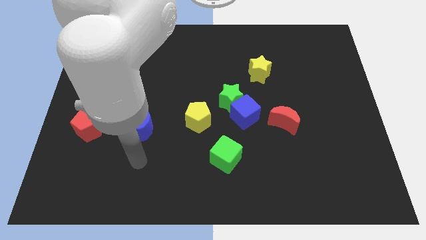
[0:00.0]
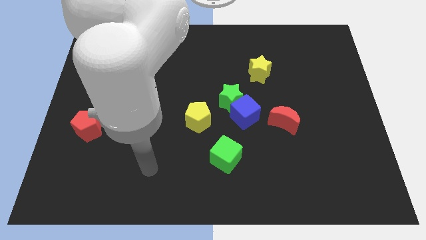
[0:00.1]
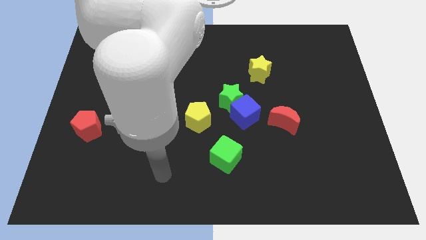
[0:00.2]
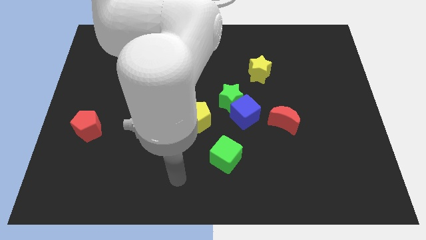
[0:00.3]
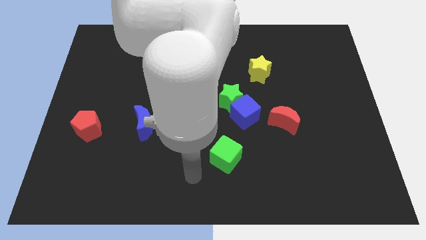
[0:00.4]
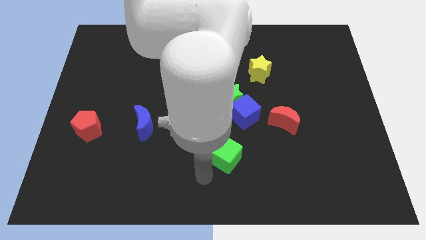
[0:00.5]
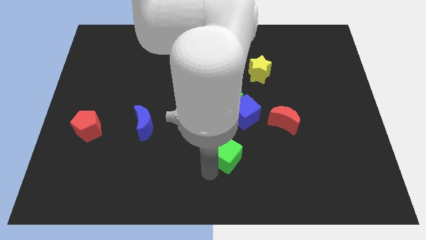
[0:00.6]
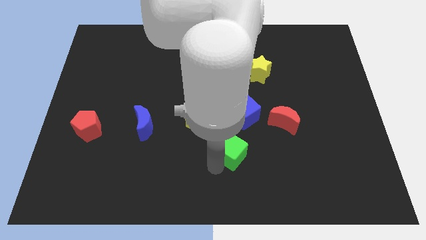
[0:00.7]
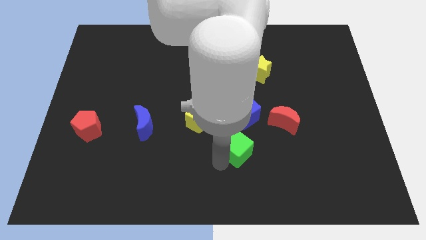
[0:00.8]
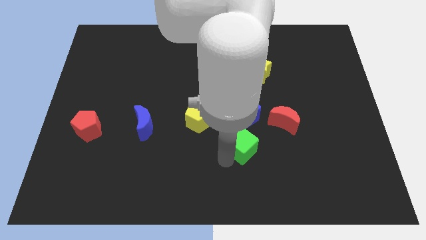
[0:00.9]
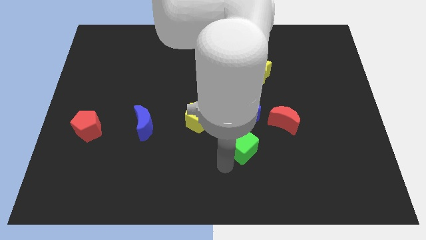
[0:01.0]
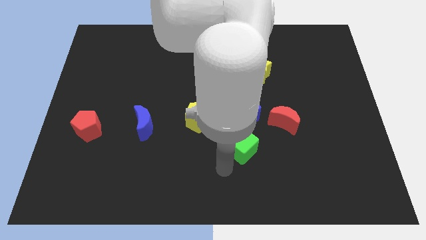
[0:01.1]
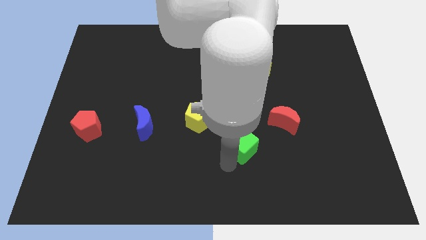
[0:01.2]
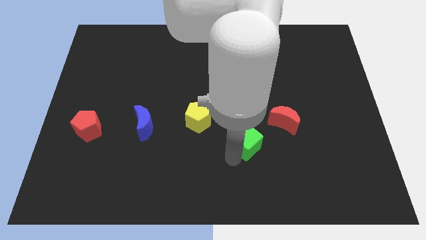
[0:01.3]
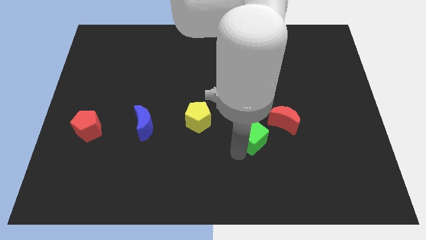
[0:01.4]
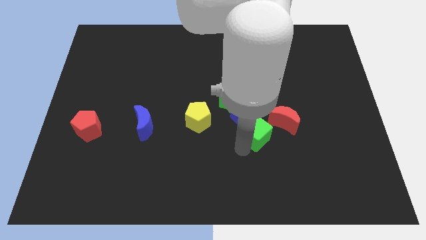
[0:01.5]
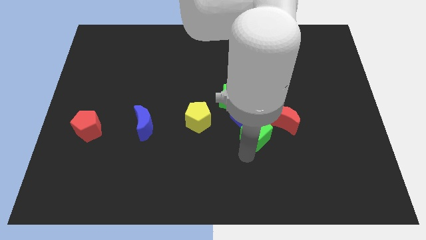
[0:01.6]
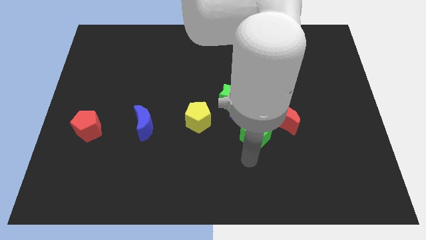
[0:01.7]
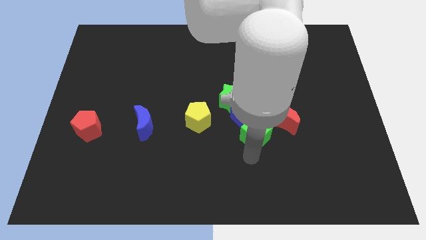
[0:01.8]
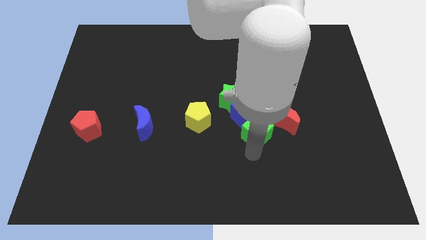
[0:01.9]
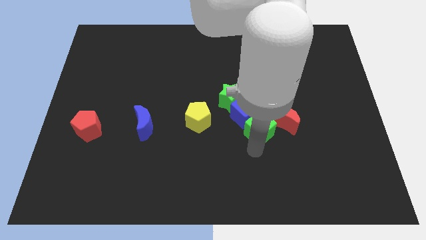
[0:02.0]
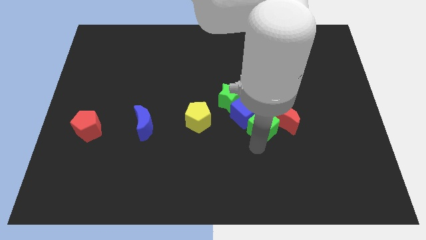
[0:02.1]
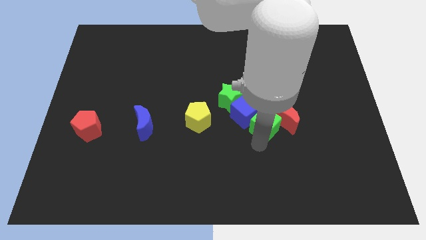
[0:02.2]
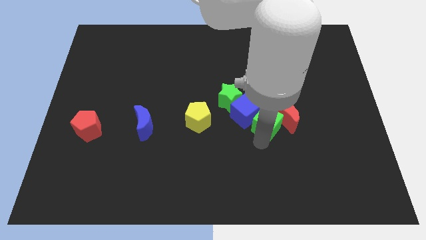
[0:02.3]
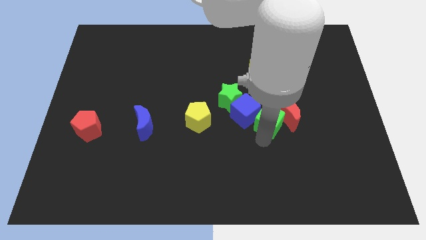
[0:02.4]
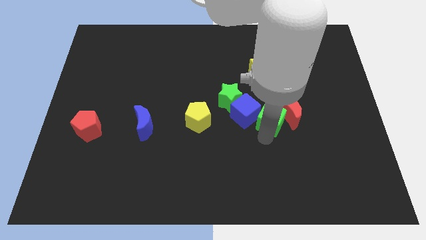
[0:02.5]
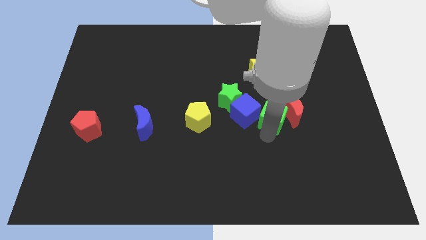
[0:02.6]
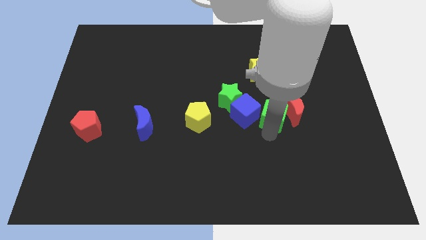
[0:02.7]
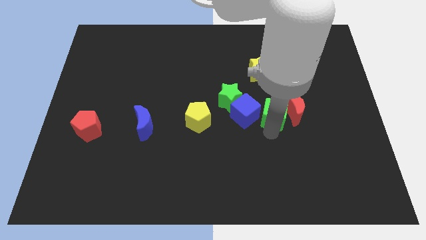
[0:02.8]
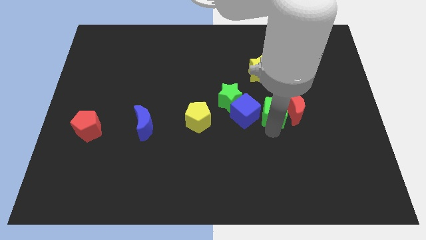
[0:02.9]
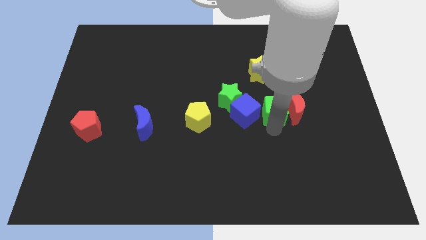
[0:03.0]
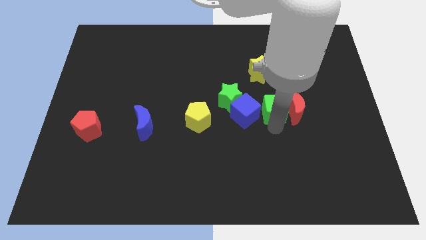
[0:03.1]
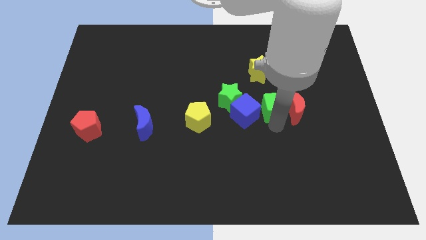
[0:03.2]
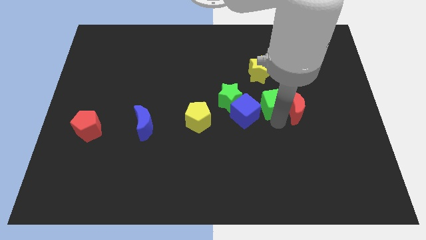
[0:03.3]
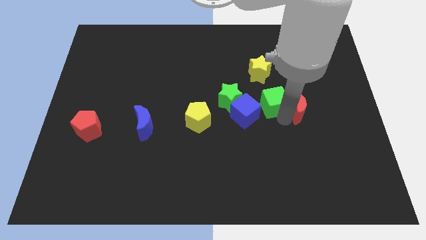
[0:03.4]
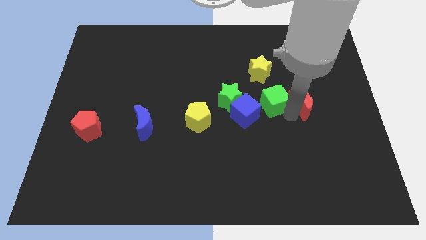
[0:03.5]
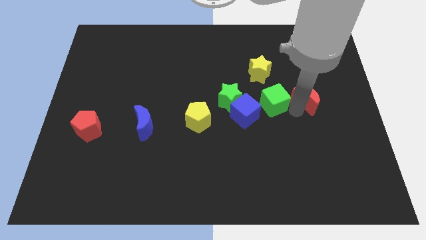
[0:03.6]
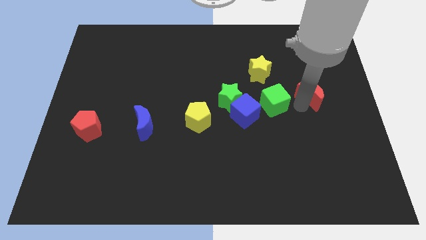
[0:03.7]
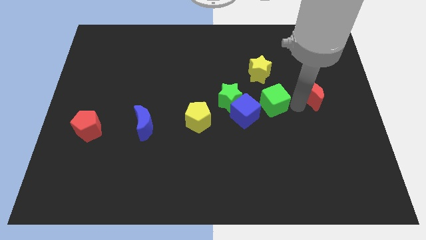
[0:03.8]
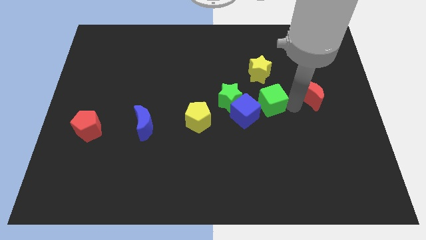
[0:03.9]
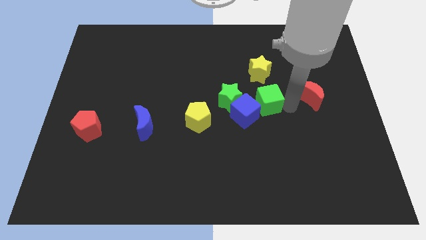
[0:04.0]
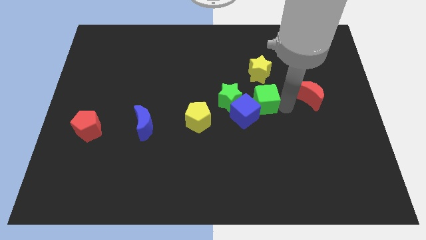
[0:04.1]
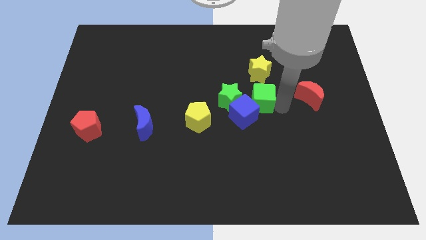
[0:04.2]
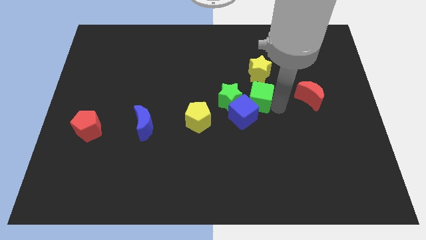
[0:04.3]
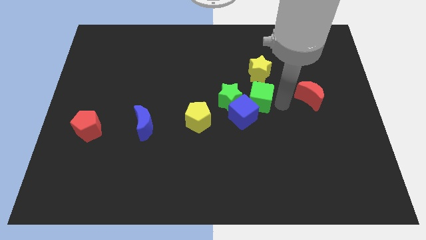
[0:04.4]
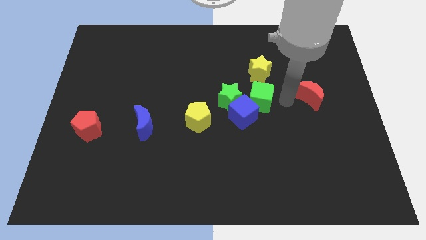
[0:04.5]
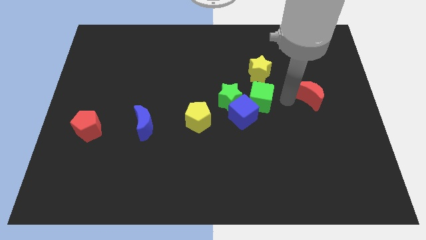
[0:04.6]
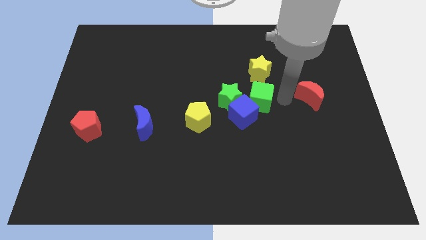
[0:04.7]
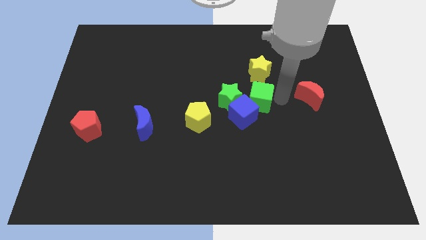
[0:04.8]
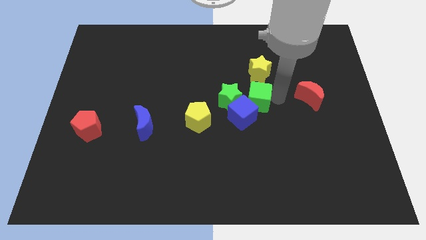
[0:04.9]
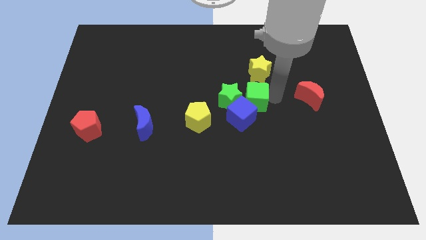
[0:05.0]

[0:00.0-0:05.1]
slide the green cube to the green star

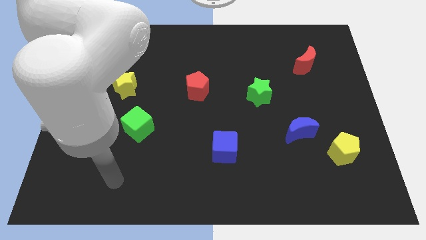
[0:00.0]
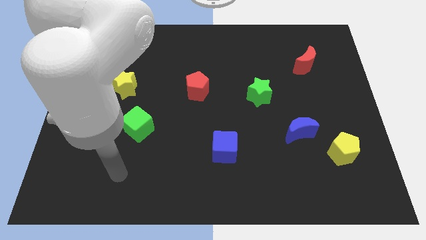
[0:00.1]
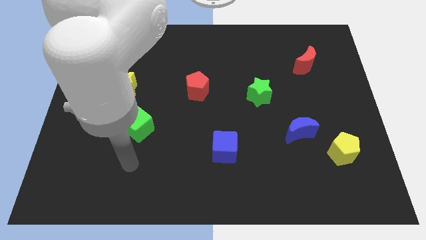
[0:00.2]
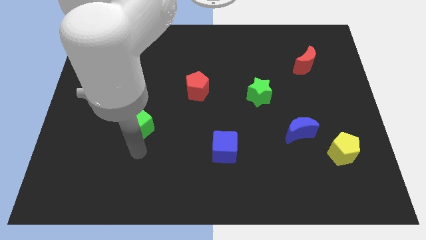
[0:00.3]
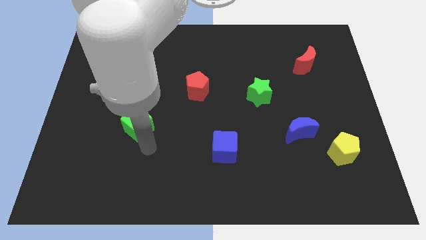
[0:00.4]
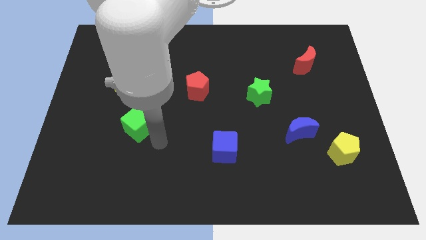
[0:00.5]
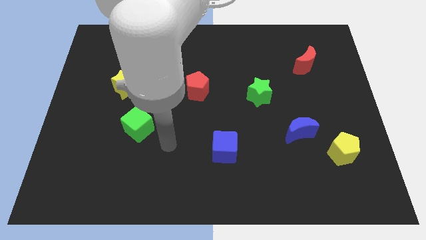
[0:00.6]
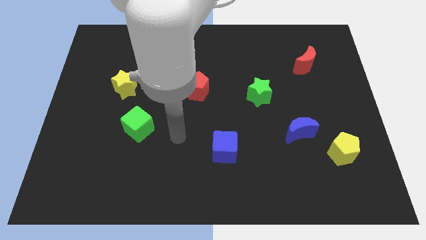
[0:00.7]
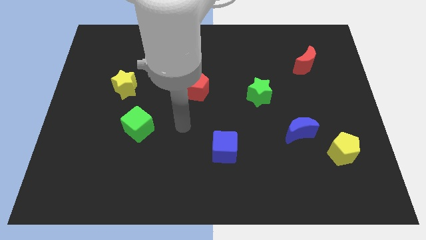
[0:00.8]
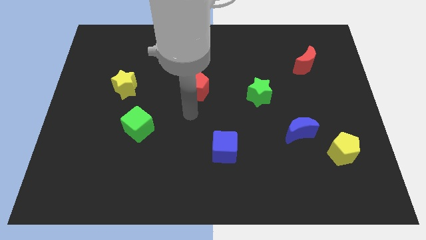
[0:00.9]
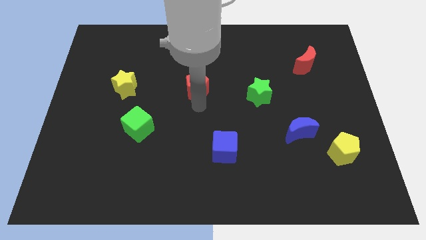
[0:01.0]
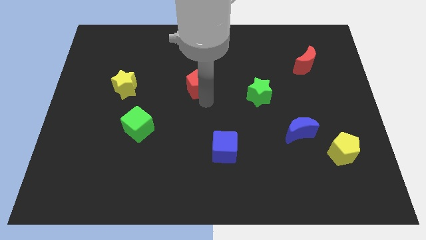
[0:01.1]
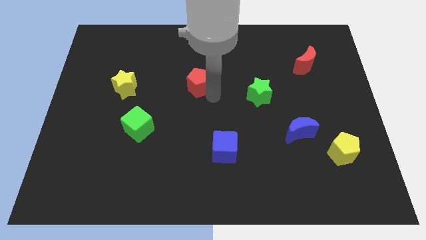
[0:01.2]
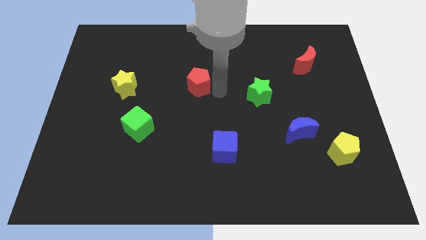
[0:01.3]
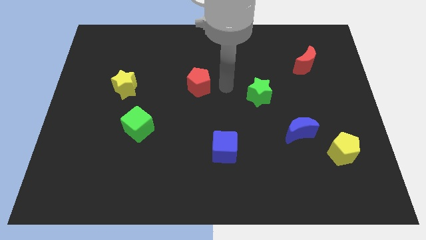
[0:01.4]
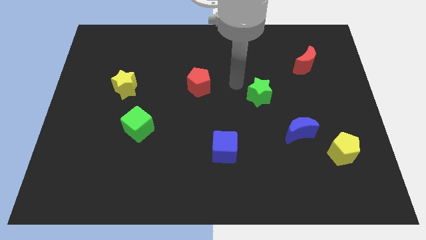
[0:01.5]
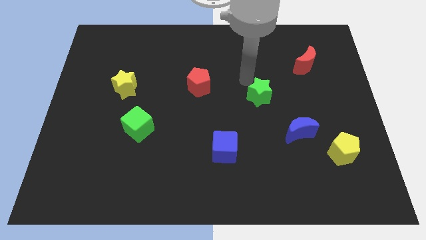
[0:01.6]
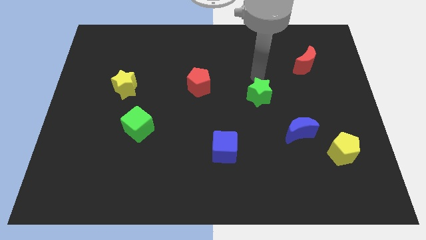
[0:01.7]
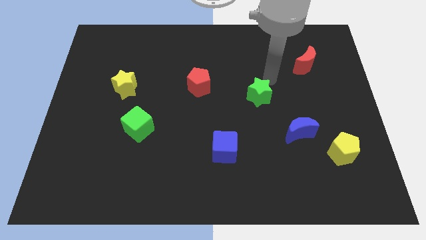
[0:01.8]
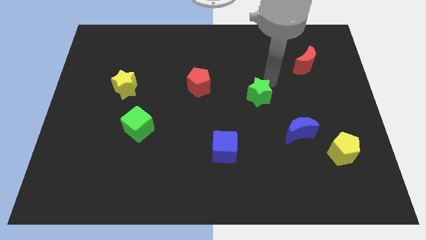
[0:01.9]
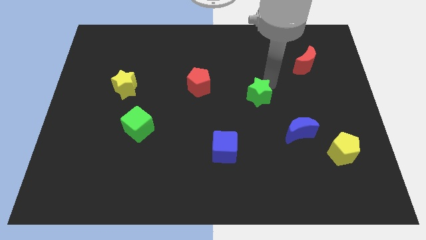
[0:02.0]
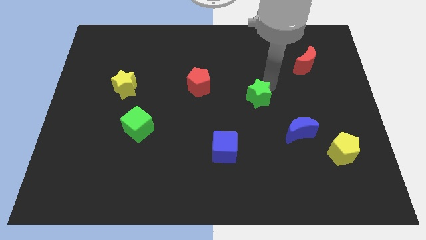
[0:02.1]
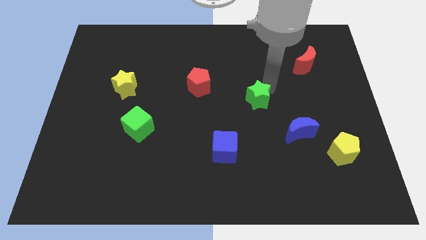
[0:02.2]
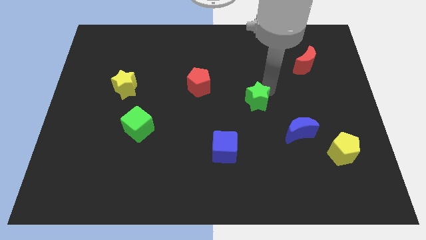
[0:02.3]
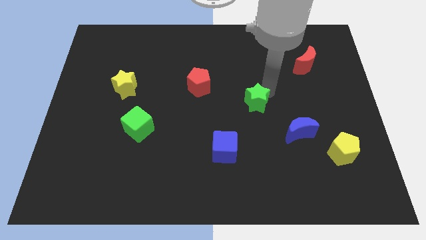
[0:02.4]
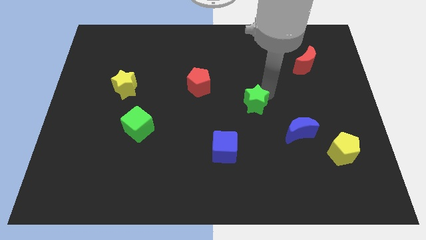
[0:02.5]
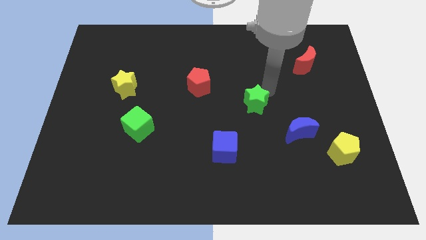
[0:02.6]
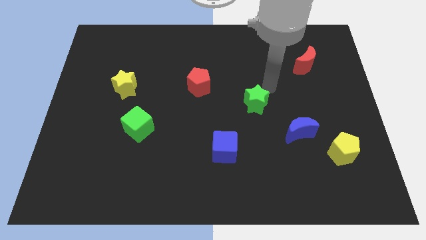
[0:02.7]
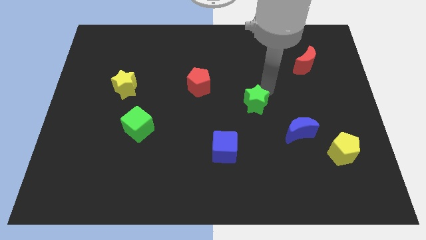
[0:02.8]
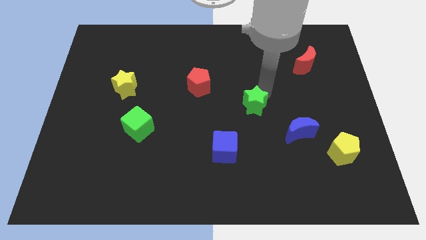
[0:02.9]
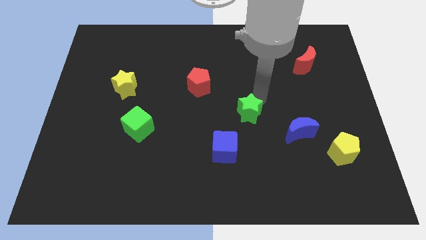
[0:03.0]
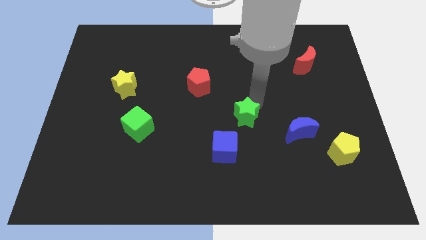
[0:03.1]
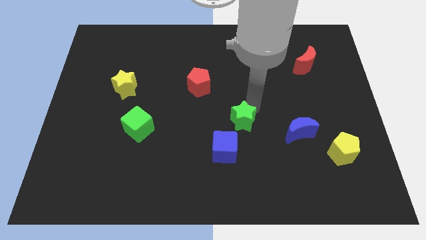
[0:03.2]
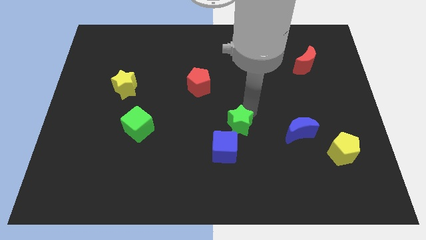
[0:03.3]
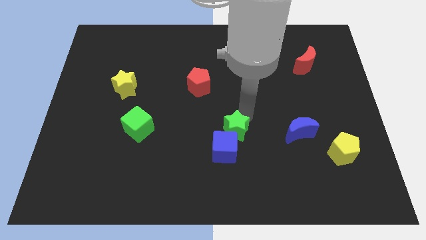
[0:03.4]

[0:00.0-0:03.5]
slide the green star towards the blue cube
